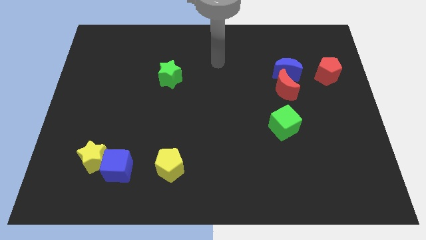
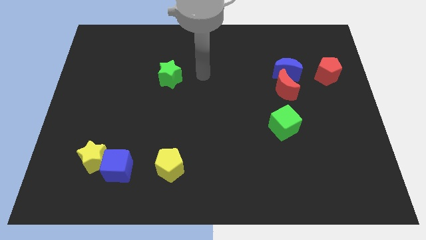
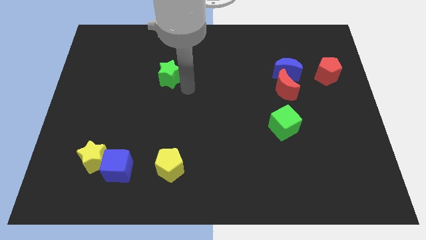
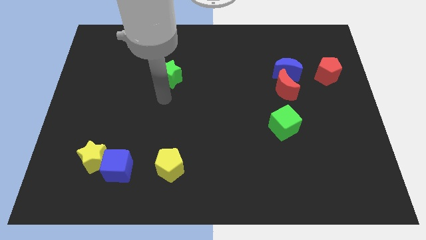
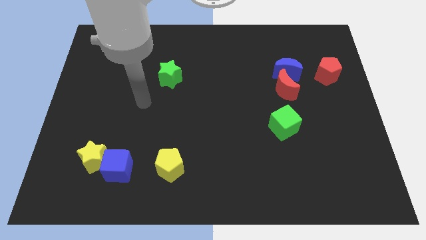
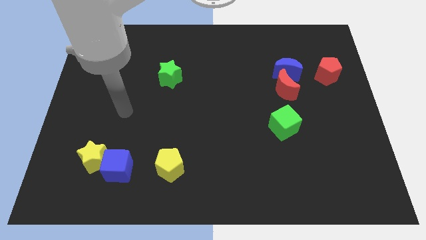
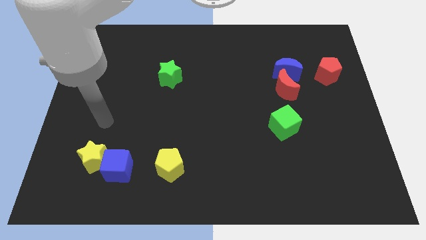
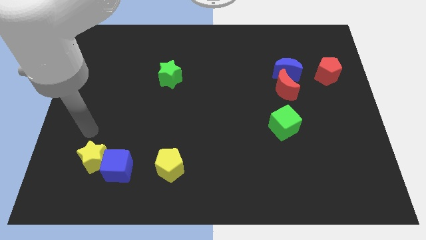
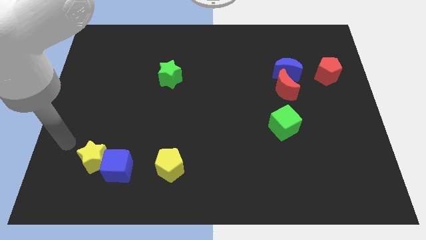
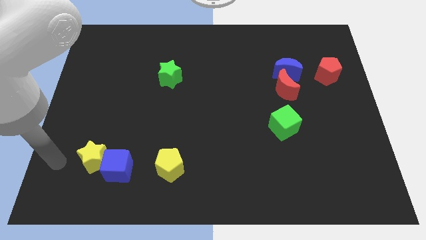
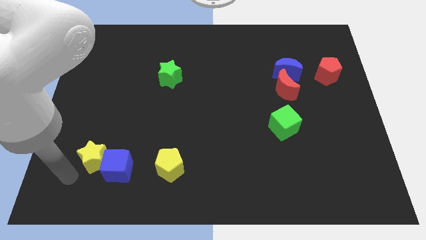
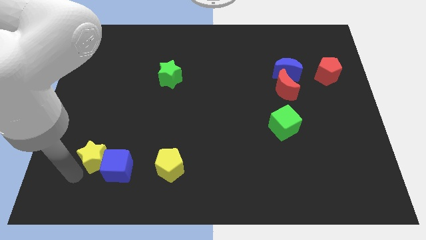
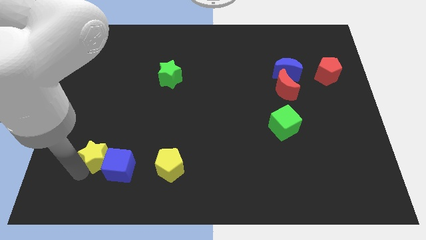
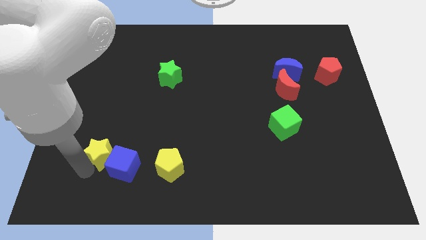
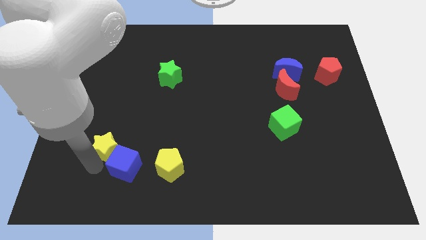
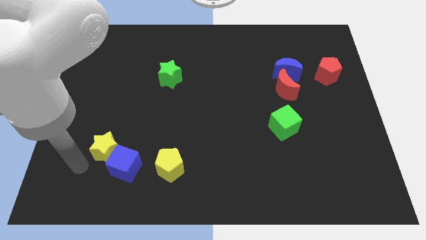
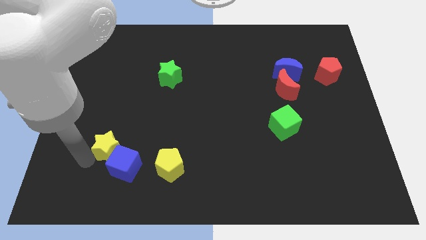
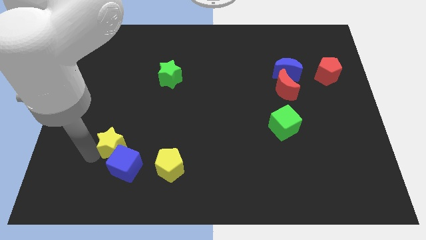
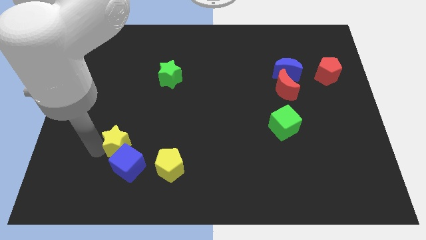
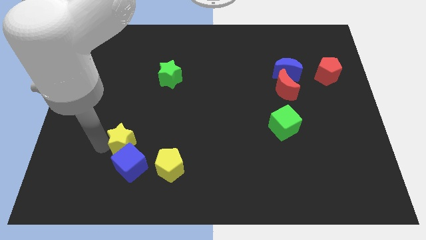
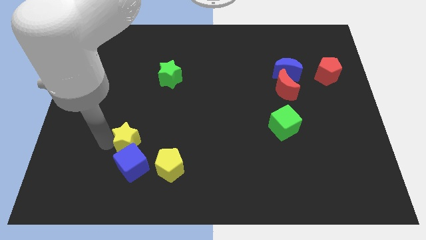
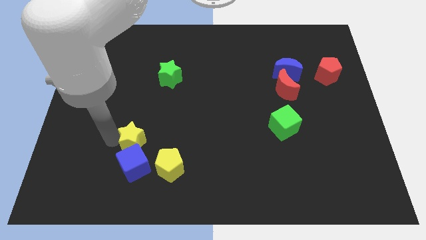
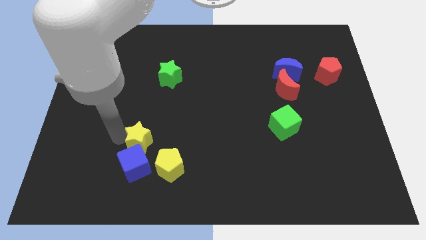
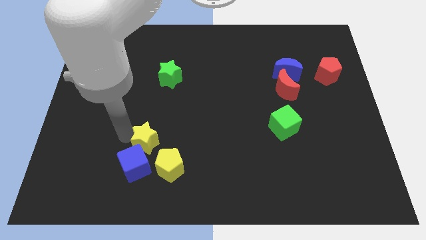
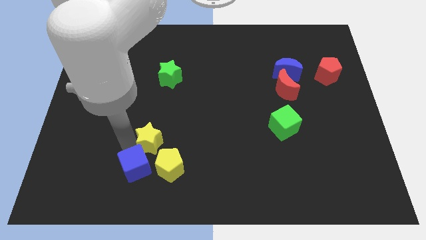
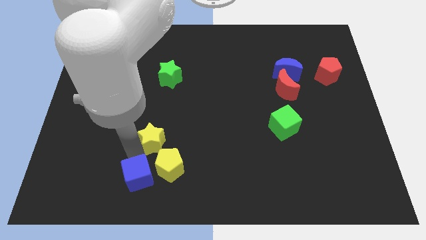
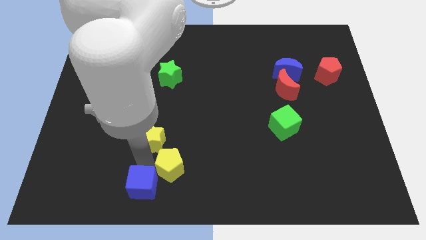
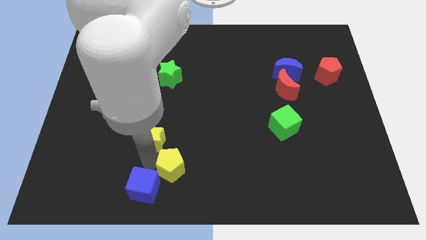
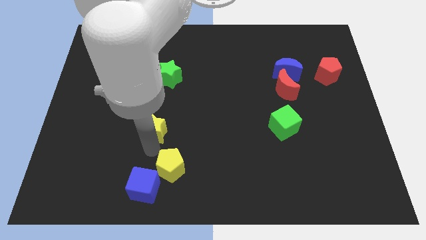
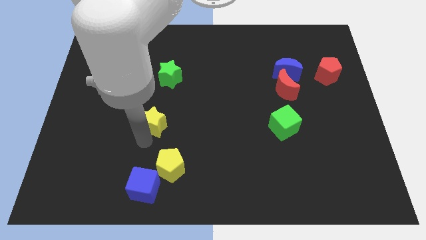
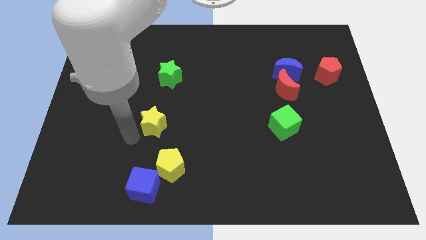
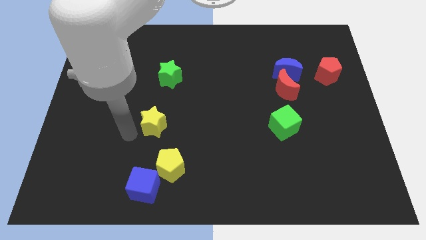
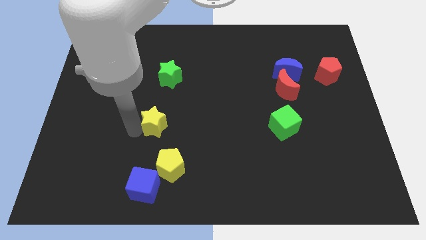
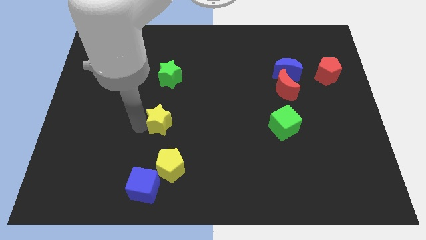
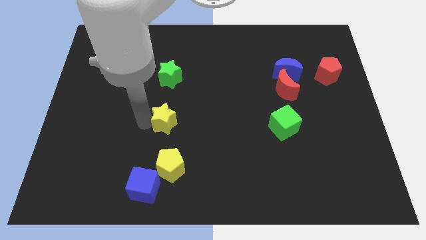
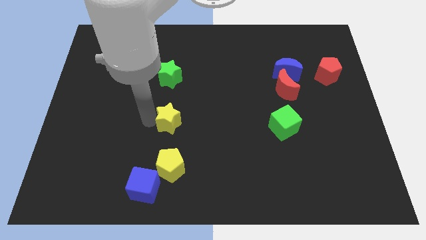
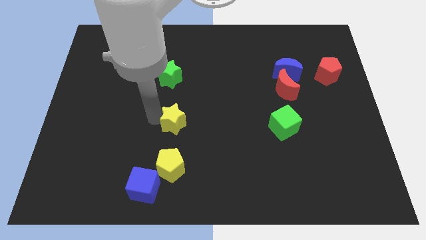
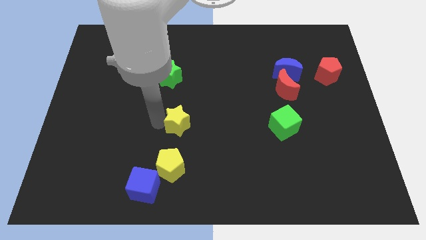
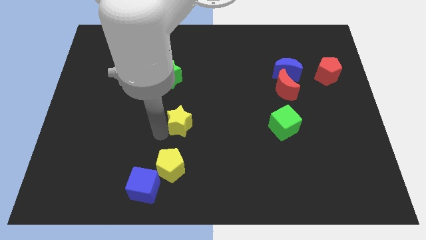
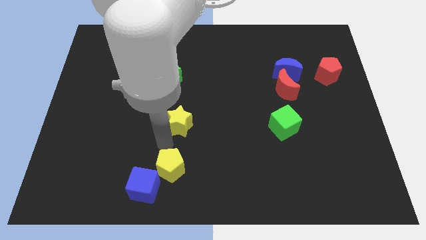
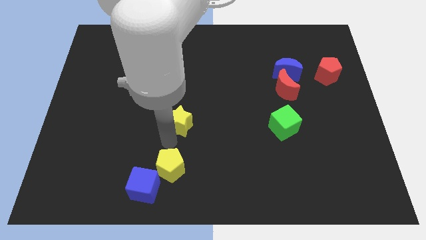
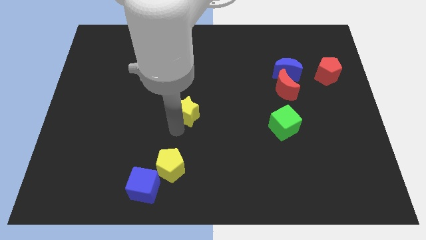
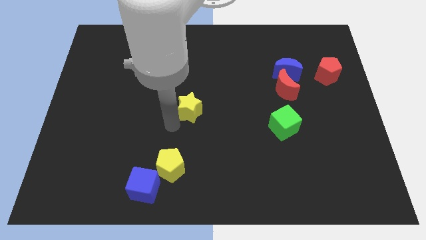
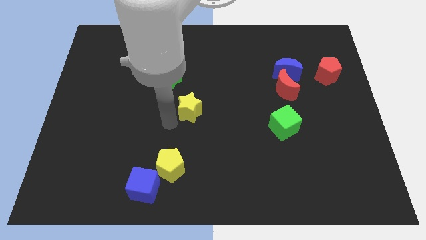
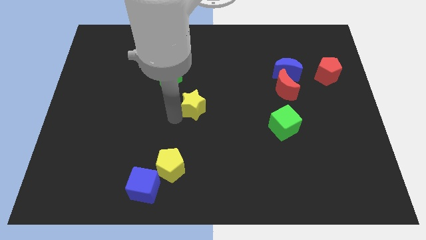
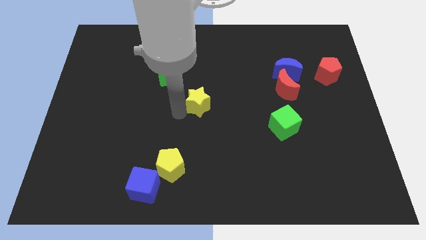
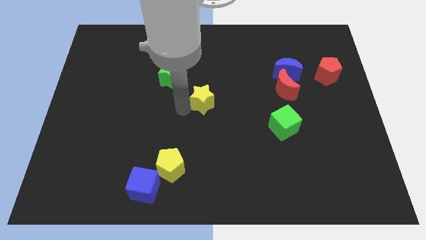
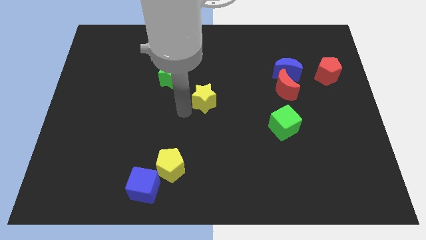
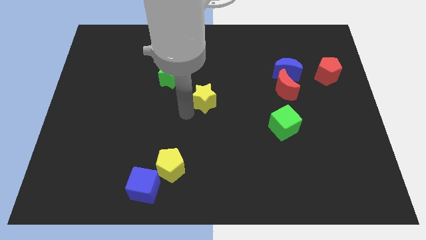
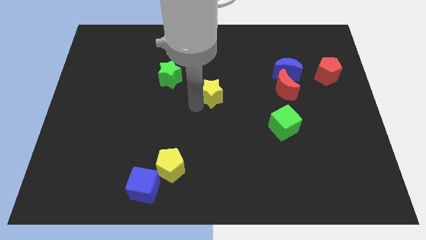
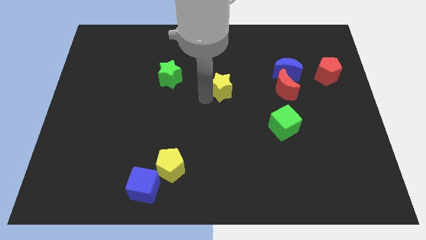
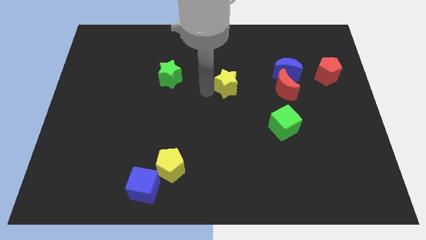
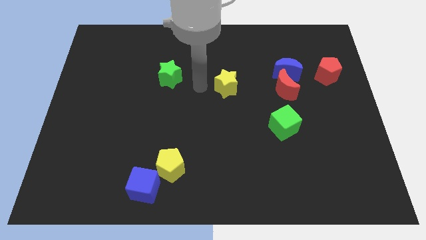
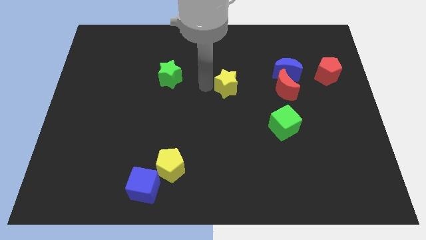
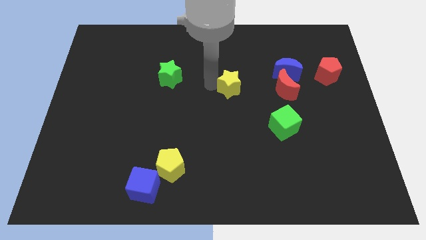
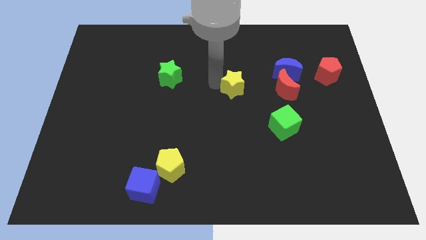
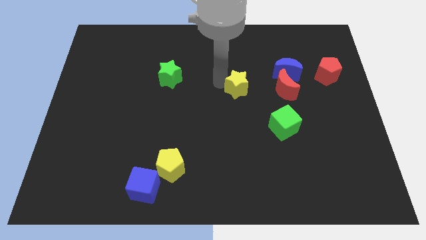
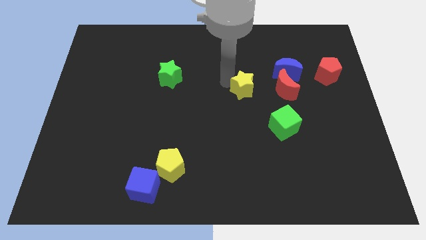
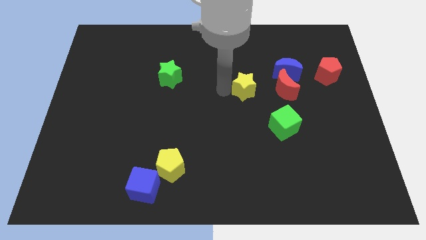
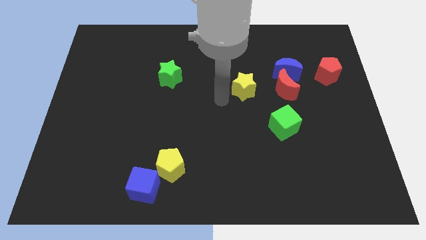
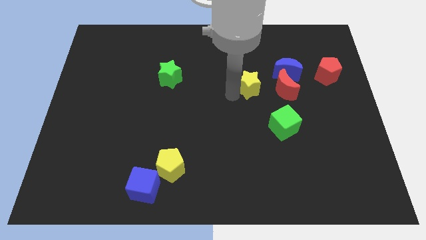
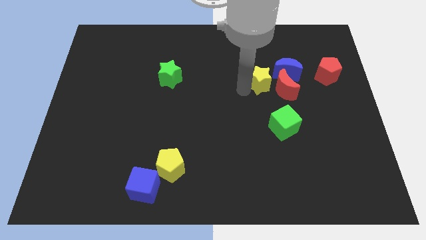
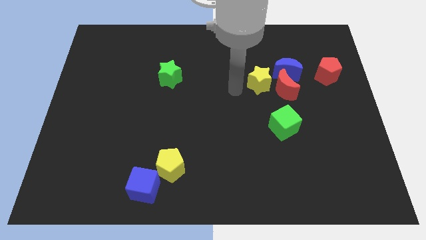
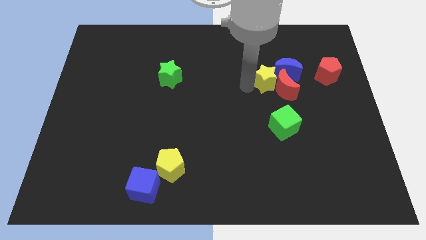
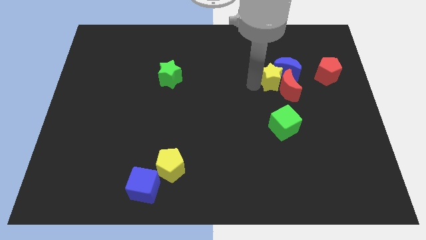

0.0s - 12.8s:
slide the yellow star to the left side of the red pentagon

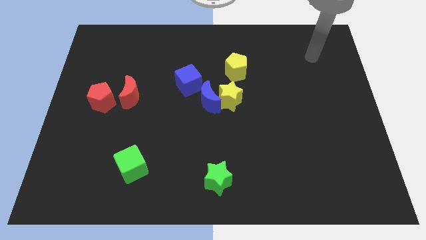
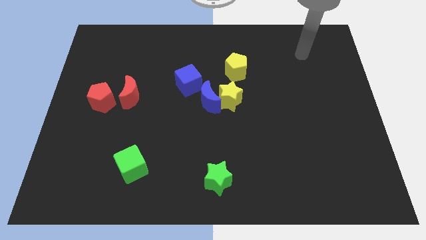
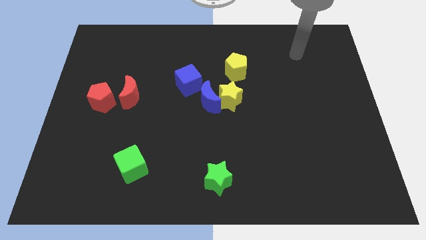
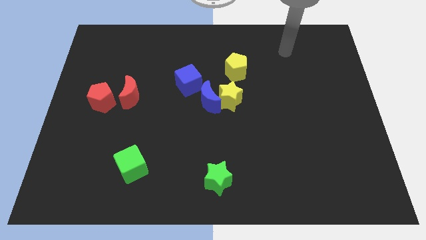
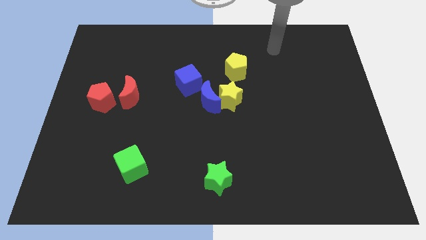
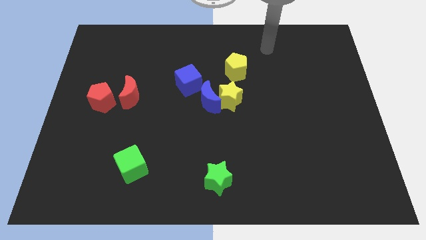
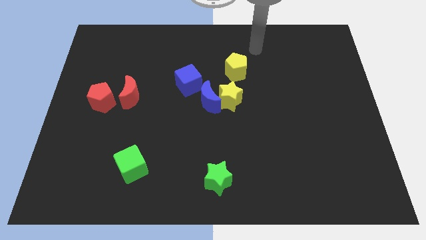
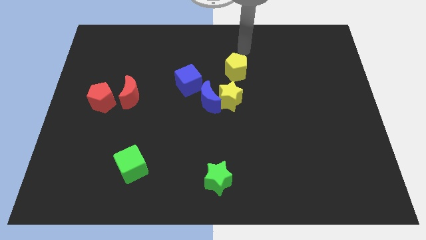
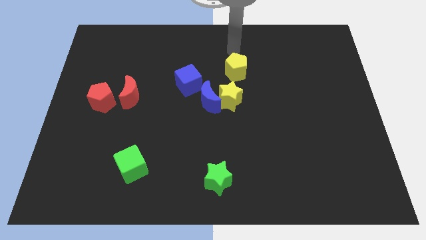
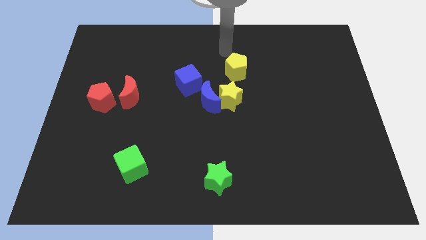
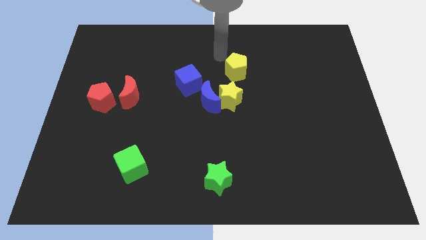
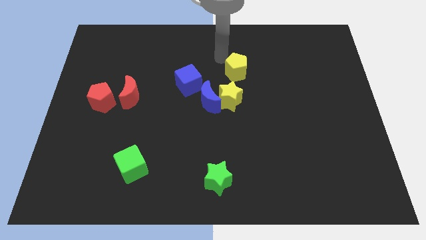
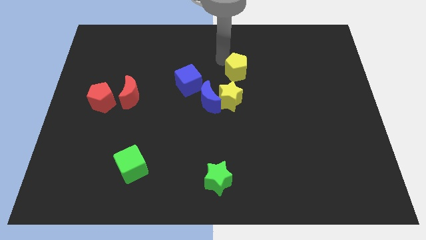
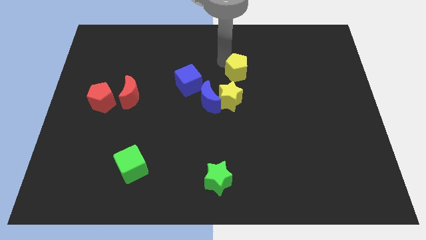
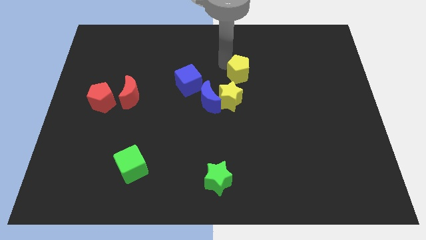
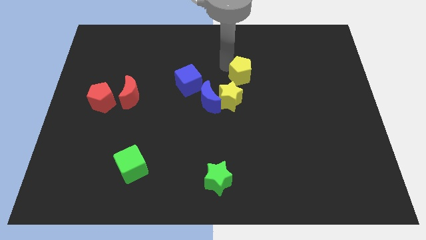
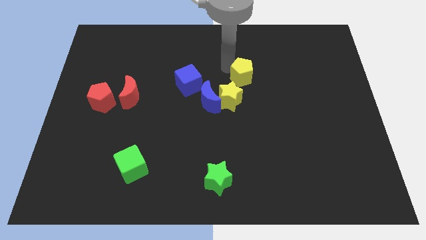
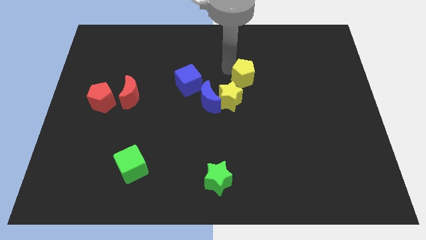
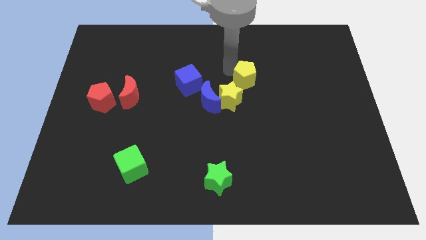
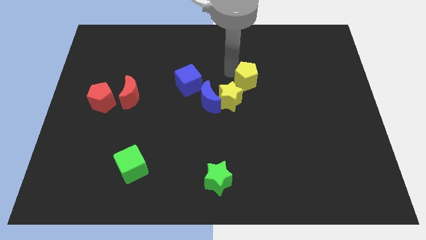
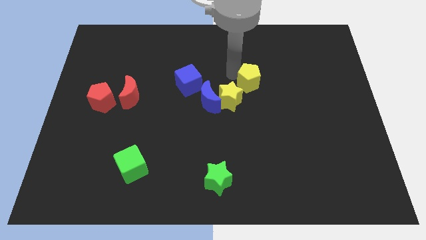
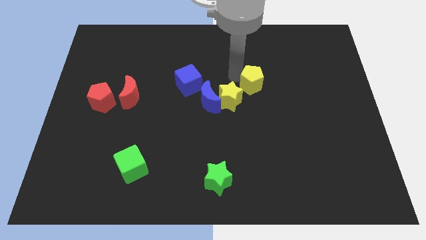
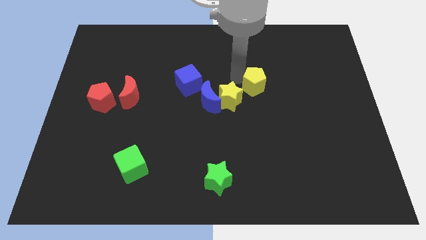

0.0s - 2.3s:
move the yellow pentagon to the right of the yellow star
